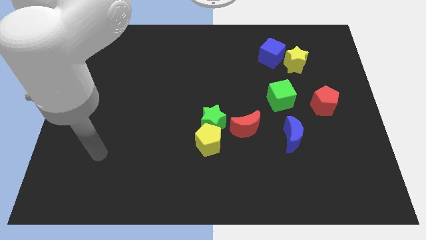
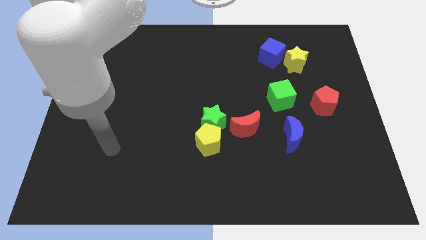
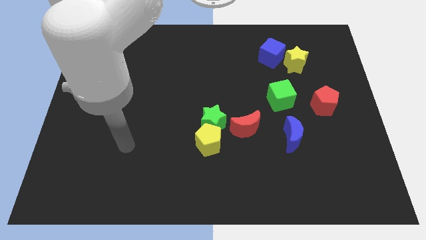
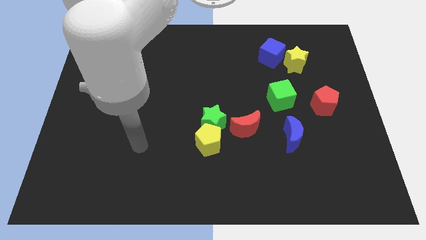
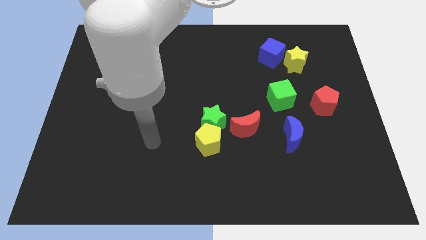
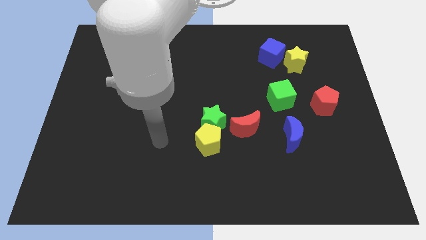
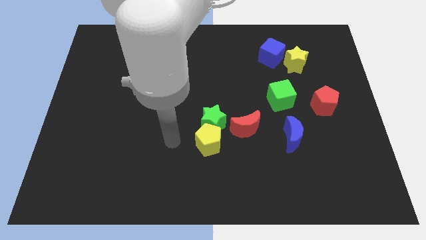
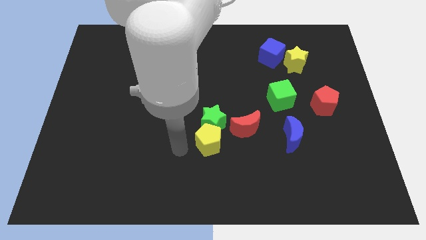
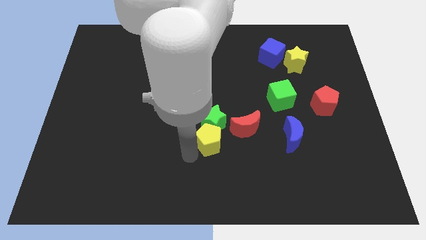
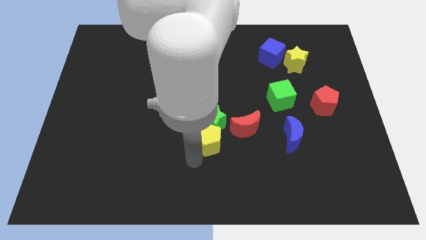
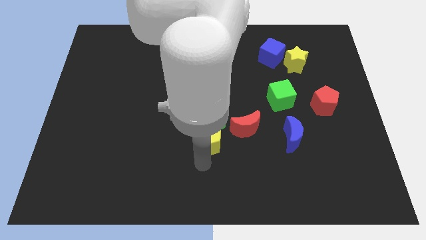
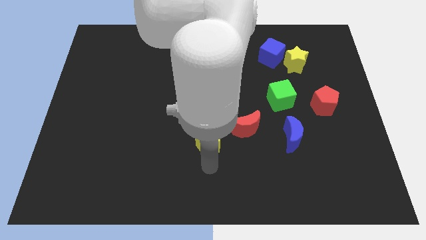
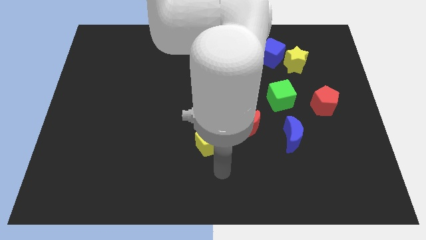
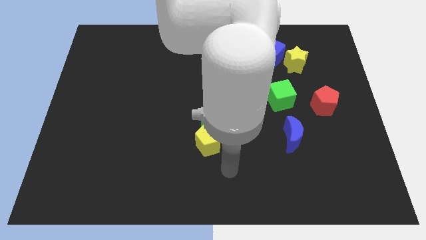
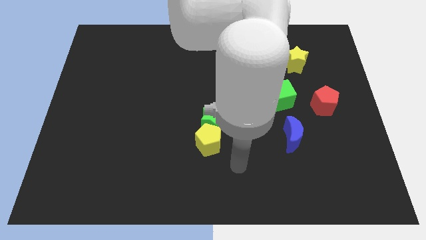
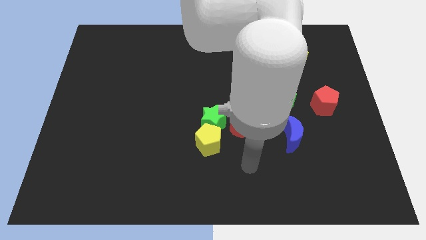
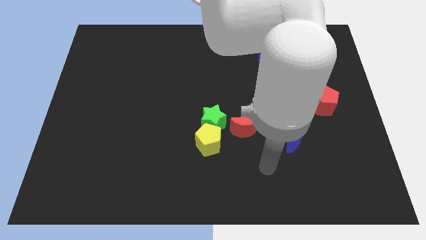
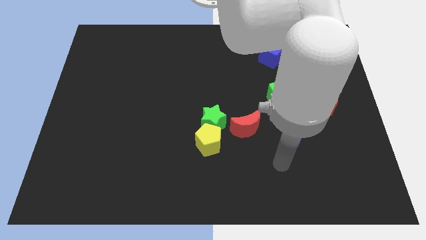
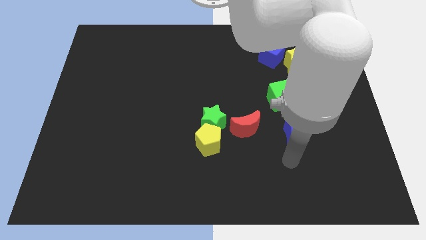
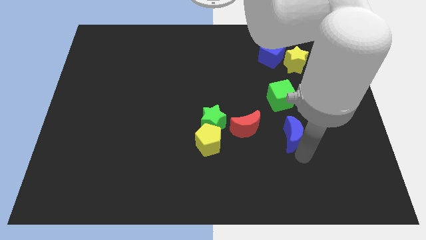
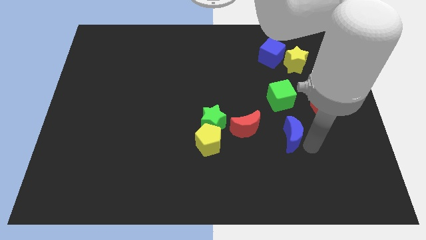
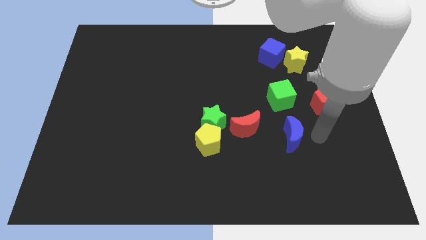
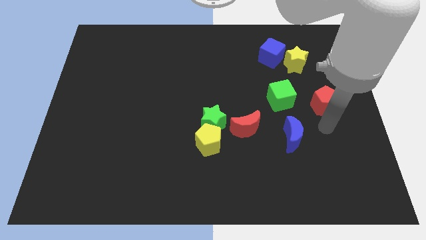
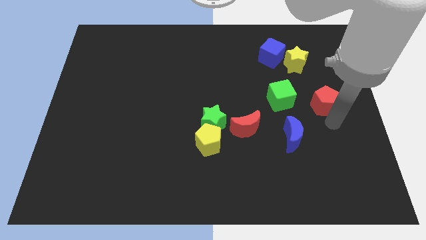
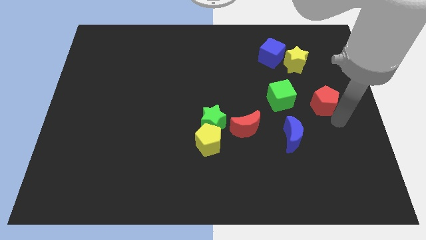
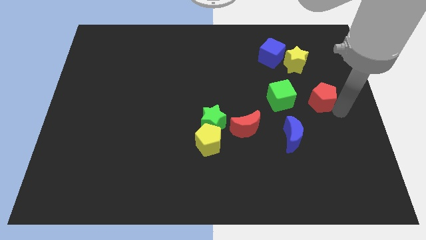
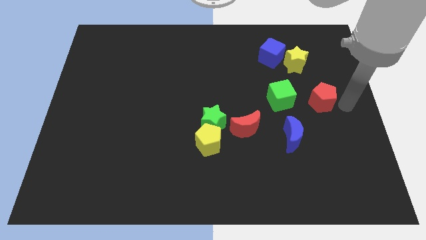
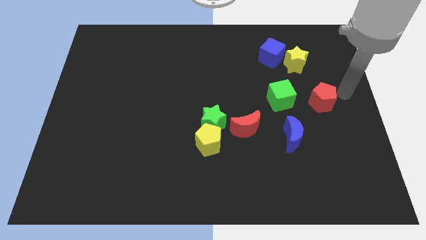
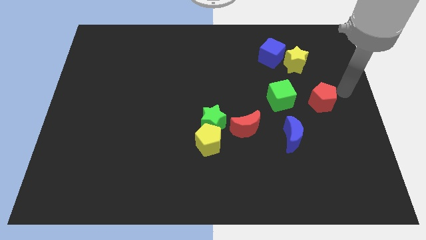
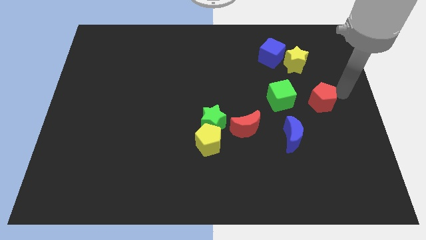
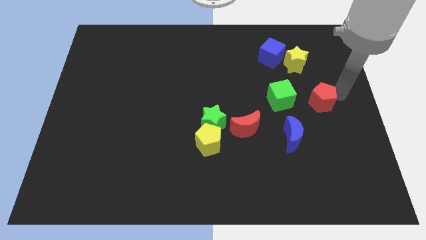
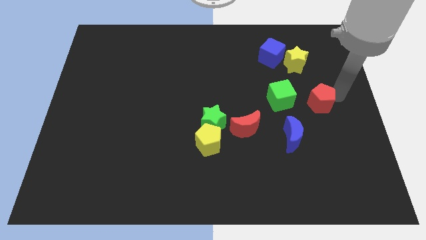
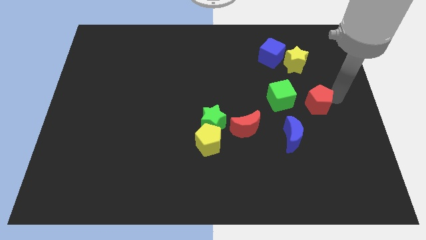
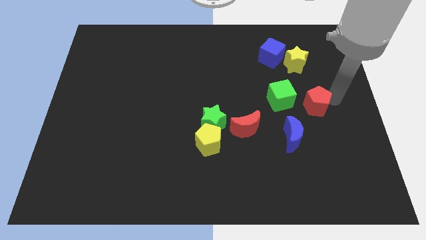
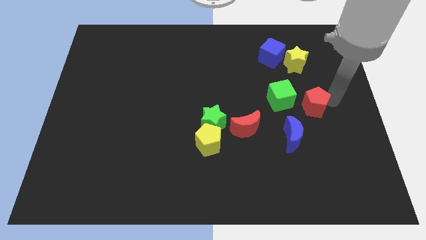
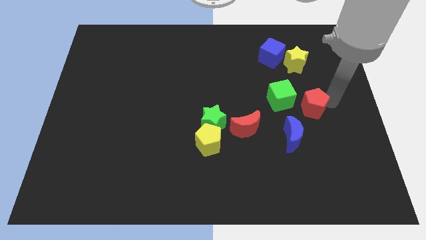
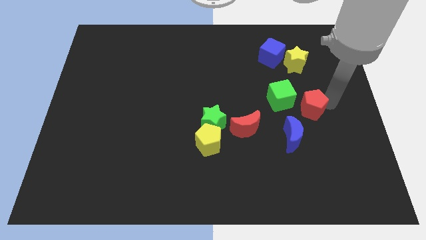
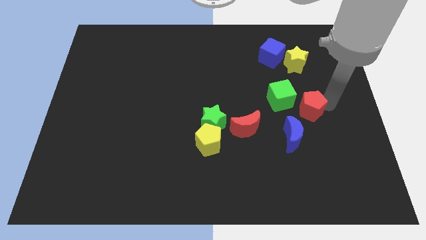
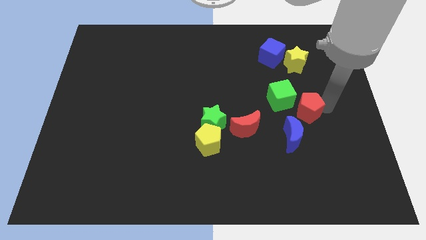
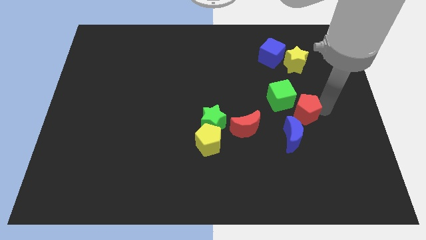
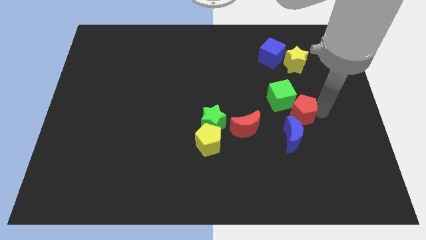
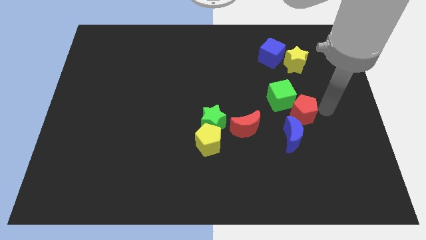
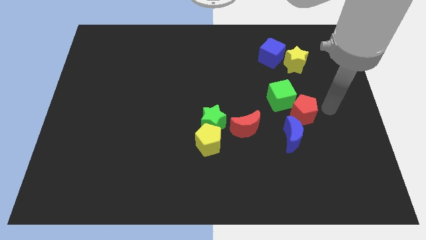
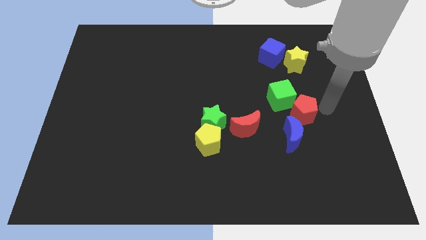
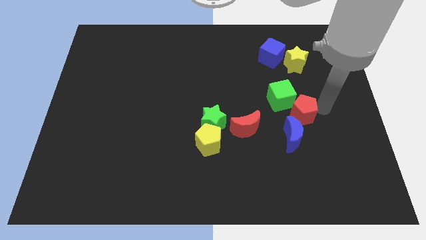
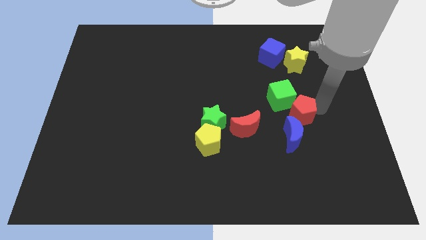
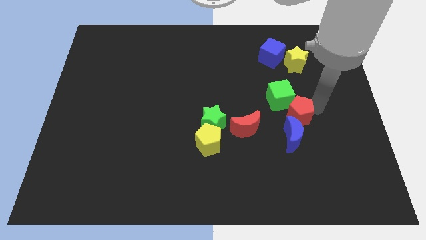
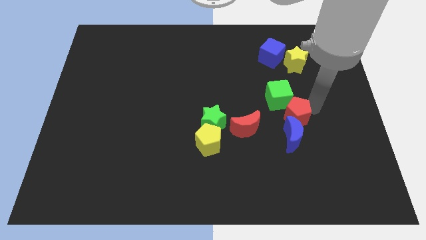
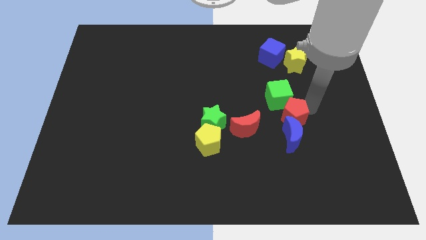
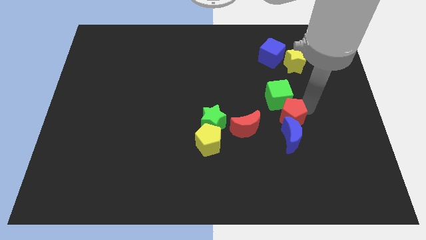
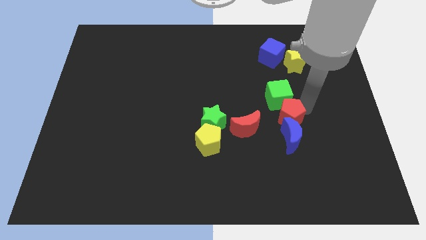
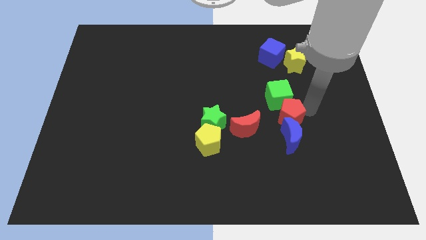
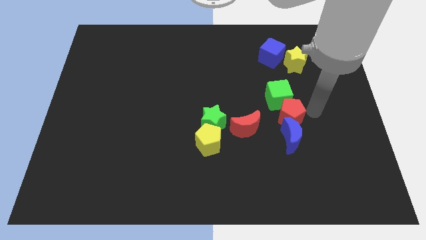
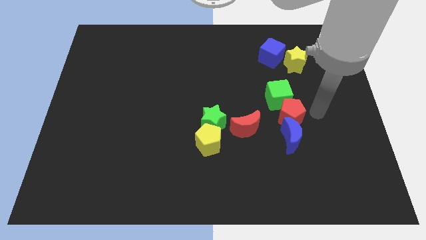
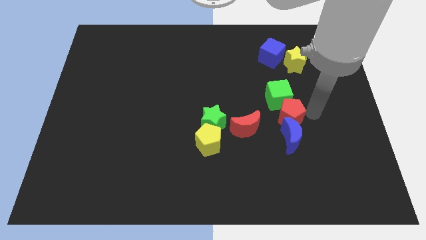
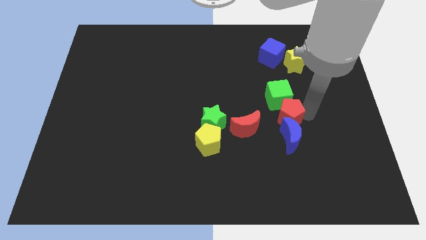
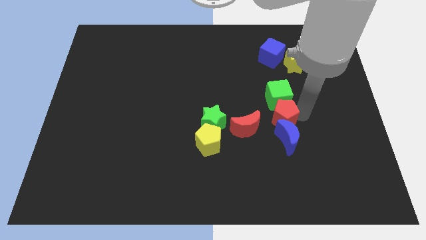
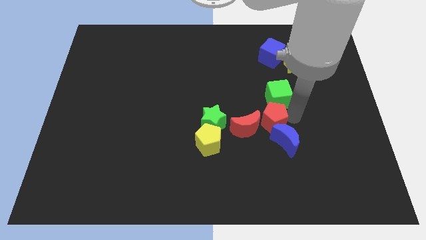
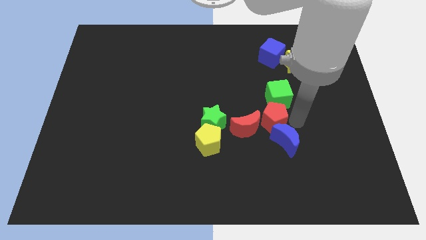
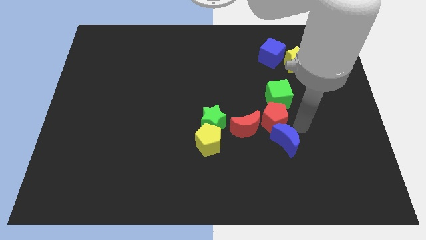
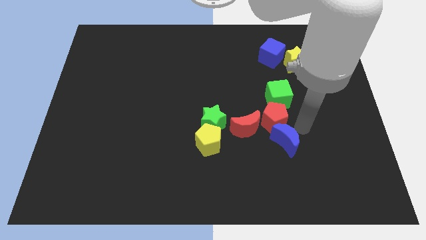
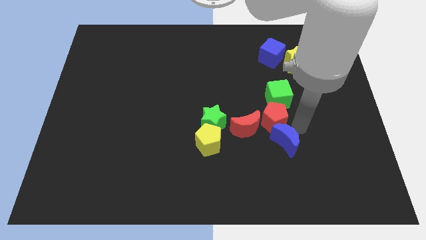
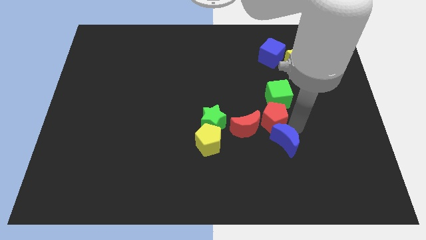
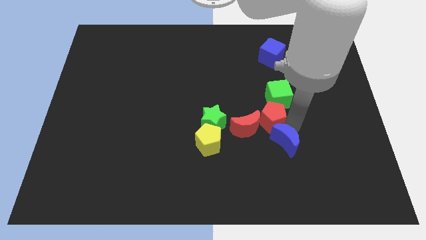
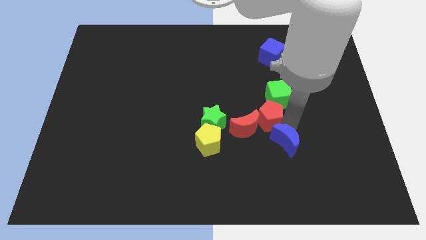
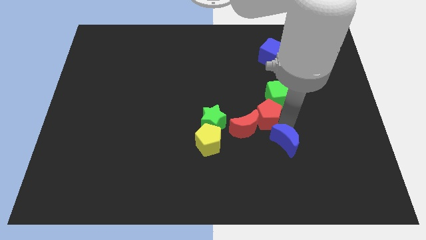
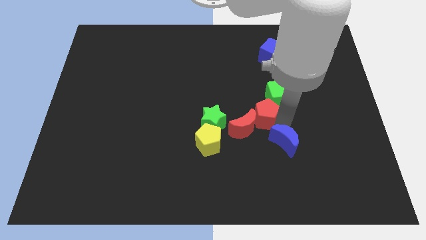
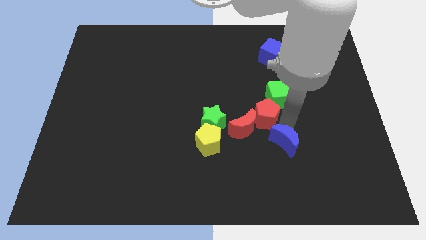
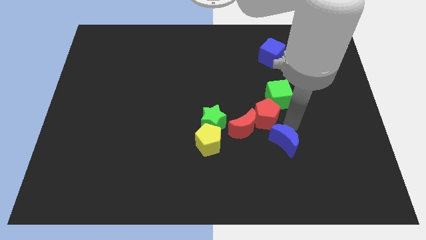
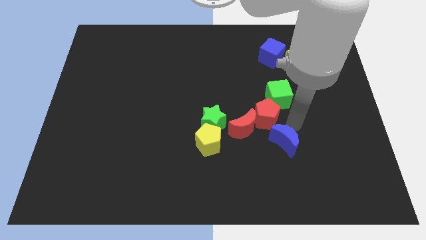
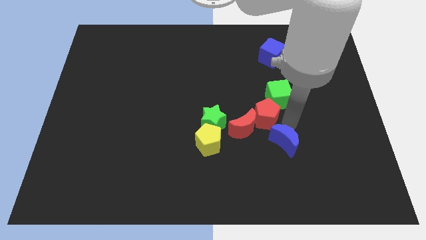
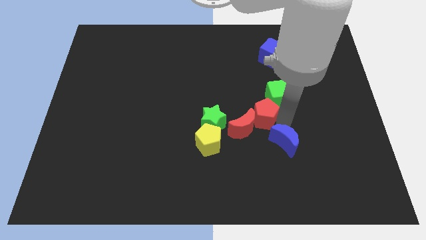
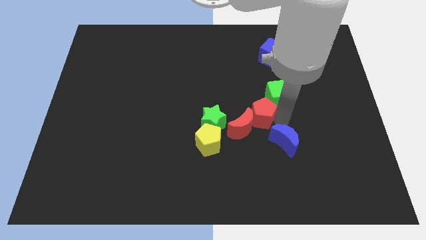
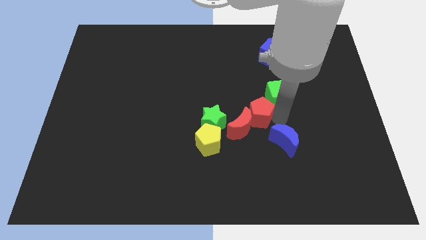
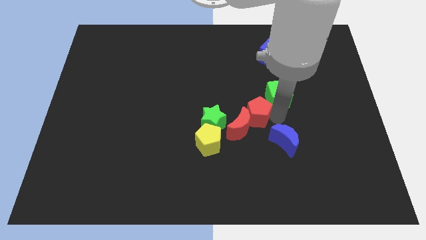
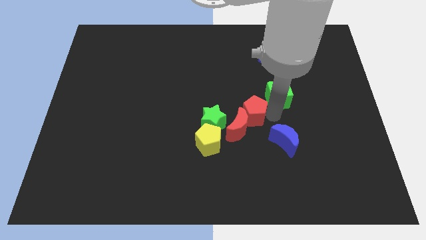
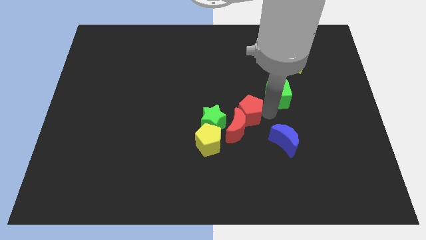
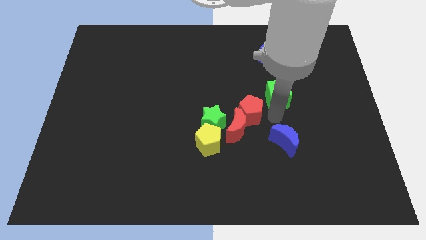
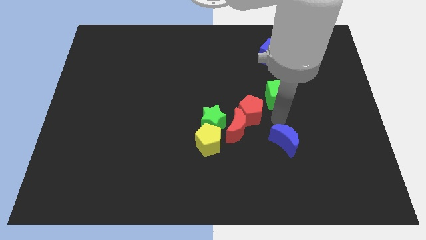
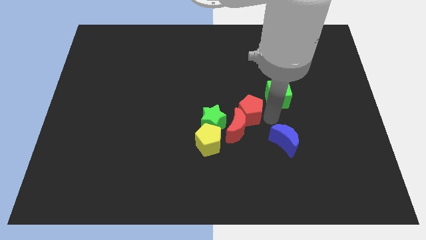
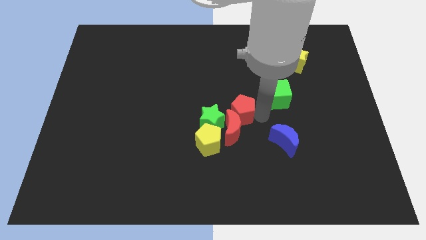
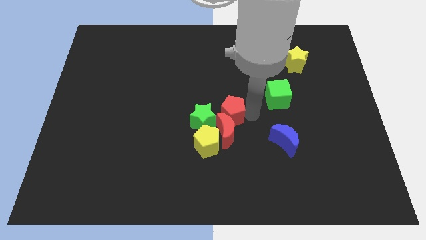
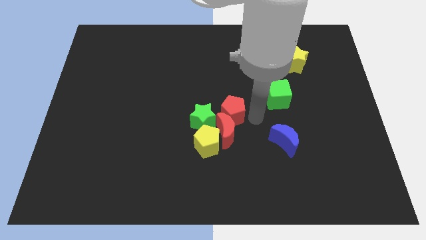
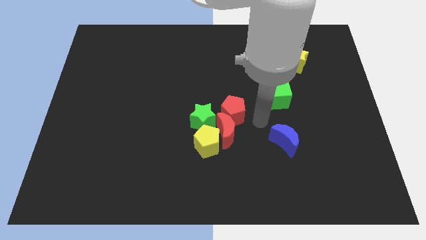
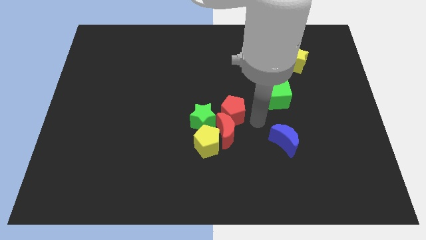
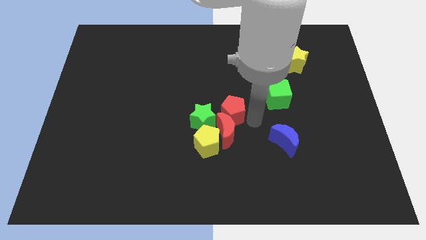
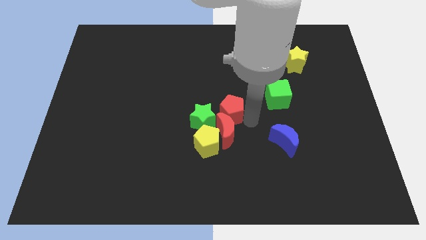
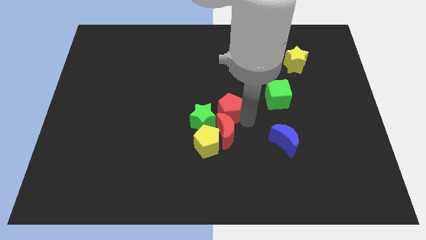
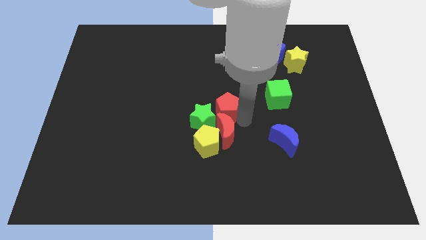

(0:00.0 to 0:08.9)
put the red pentagon to the top side of the yellow pentagon
